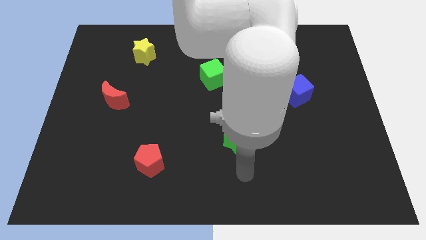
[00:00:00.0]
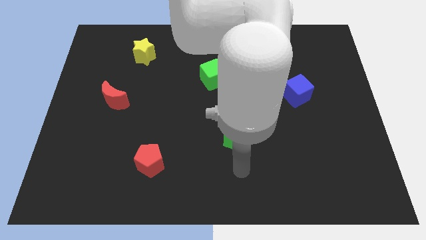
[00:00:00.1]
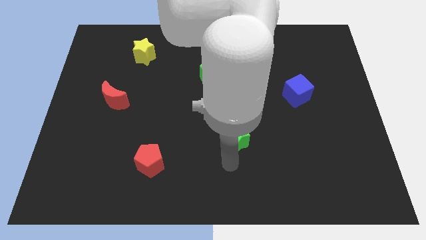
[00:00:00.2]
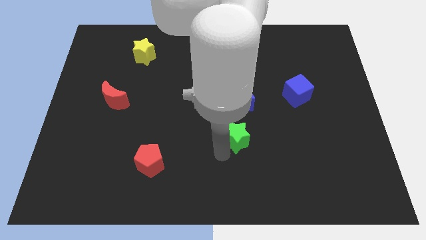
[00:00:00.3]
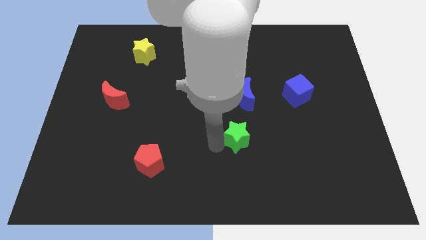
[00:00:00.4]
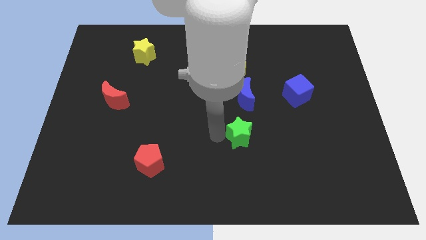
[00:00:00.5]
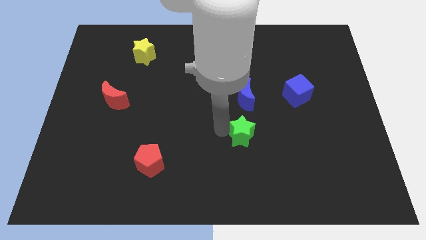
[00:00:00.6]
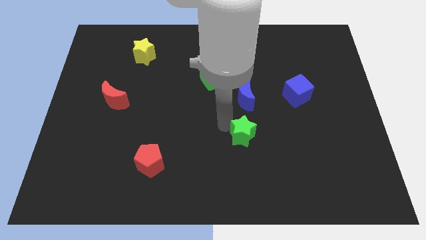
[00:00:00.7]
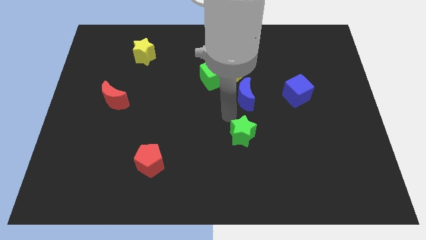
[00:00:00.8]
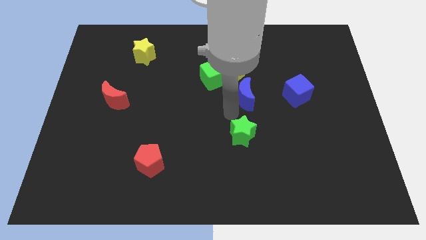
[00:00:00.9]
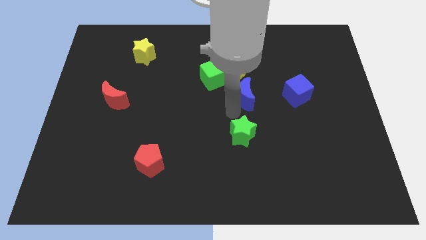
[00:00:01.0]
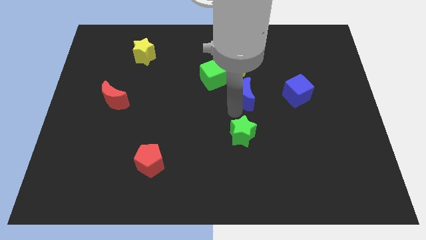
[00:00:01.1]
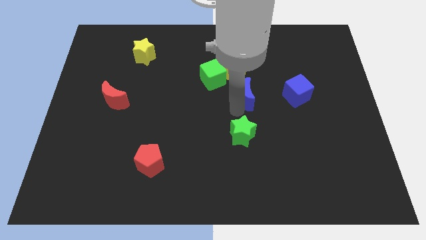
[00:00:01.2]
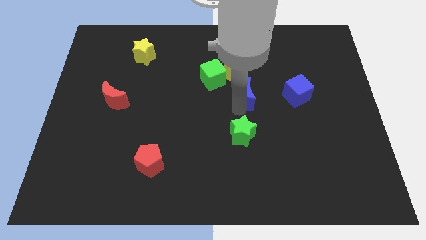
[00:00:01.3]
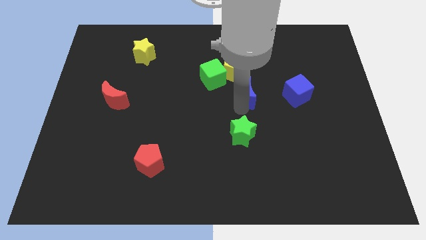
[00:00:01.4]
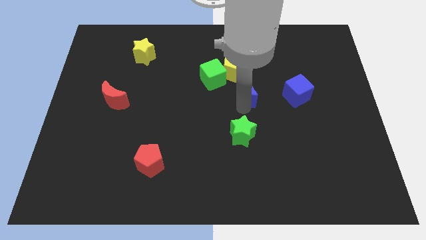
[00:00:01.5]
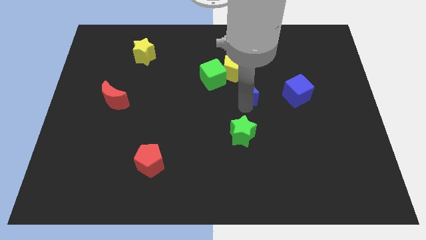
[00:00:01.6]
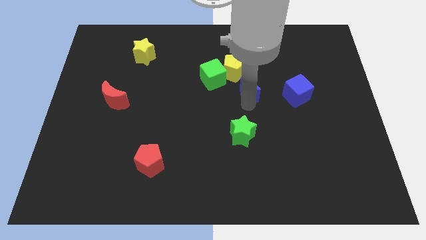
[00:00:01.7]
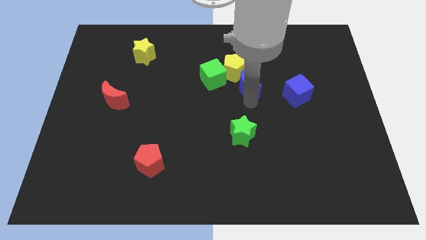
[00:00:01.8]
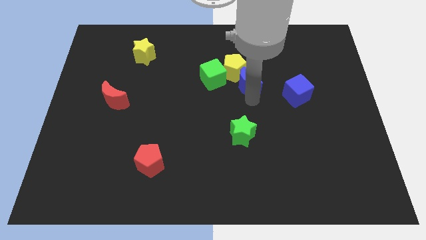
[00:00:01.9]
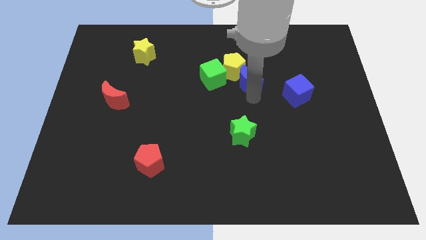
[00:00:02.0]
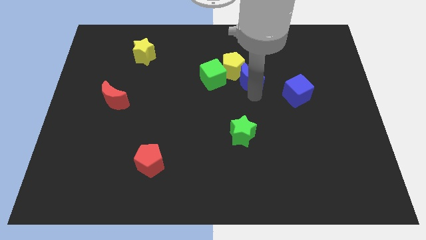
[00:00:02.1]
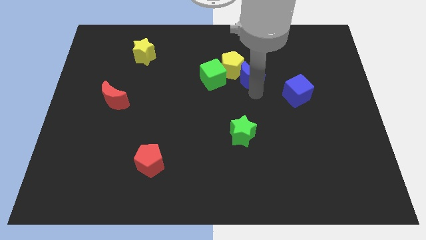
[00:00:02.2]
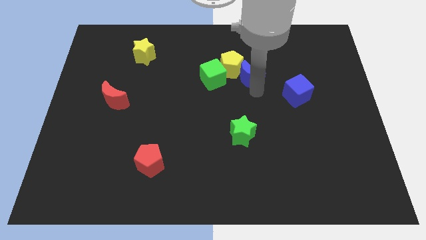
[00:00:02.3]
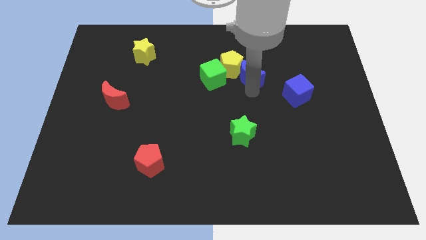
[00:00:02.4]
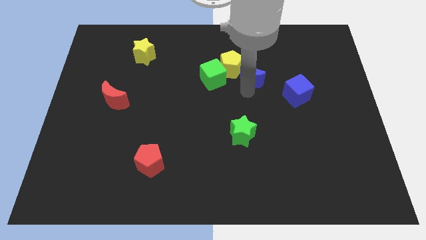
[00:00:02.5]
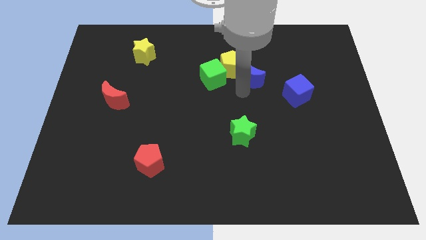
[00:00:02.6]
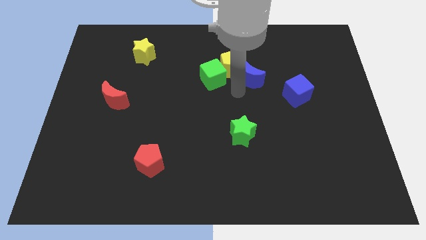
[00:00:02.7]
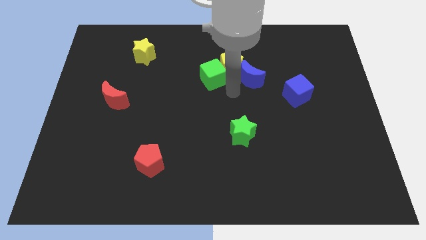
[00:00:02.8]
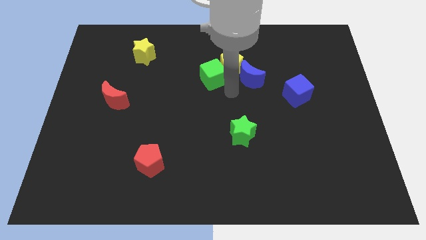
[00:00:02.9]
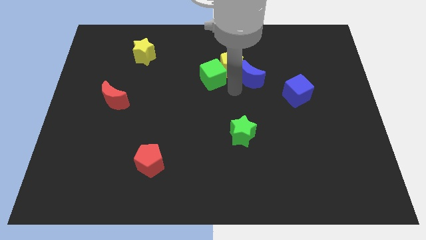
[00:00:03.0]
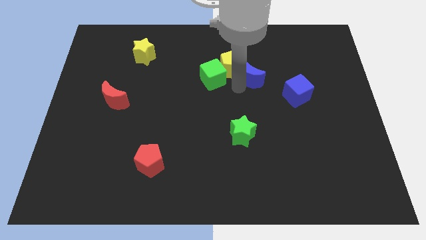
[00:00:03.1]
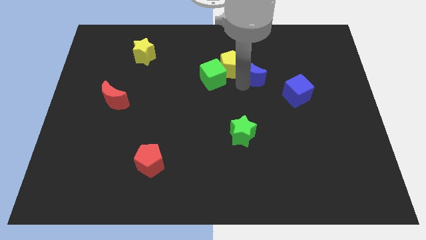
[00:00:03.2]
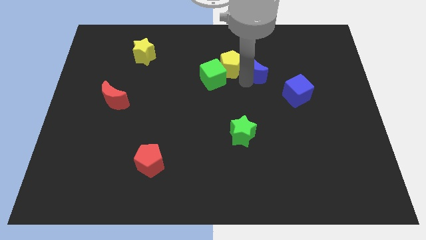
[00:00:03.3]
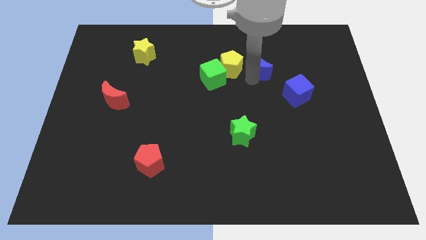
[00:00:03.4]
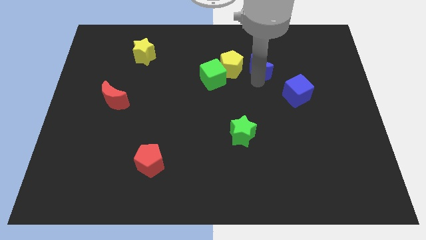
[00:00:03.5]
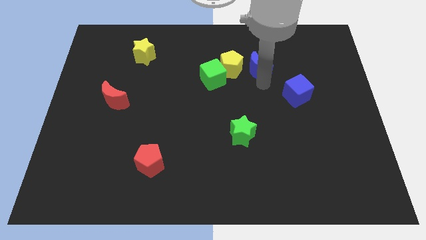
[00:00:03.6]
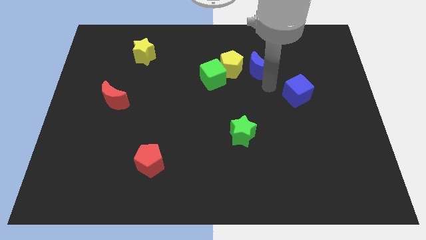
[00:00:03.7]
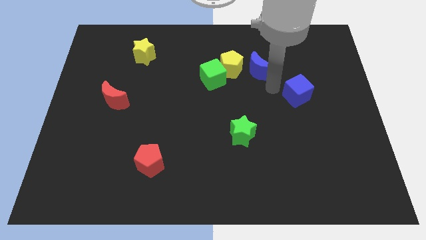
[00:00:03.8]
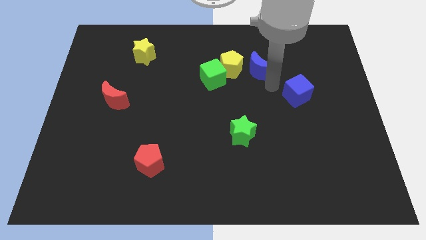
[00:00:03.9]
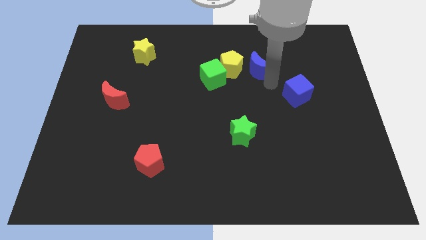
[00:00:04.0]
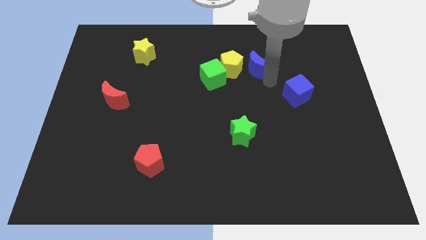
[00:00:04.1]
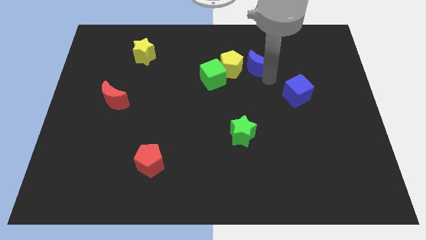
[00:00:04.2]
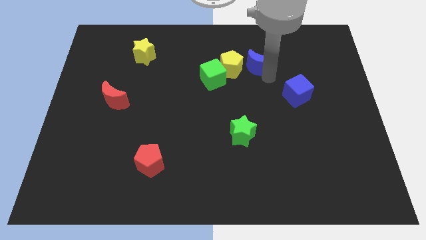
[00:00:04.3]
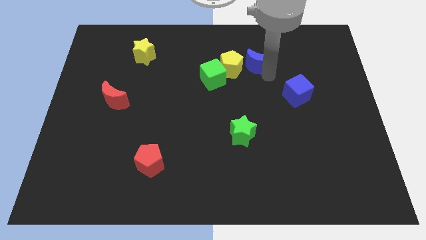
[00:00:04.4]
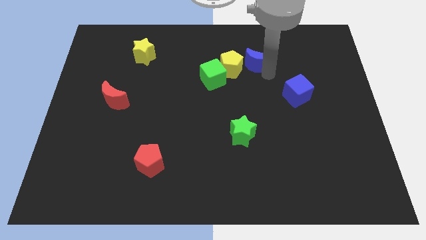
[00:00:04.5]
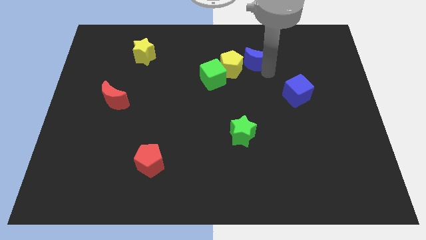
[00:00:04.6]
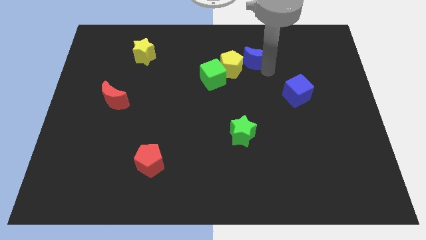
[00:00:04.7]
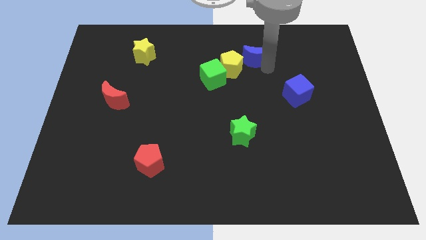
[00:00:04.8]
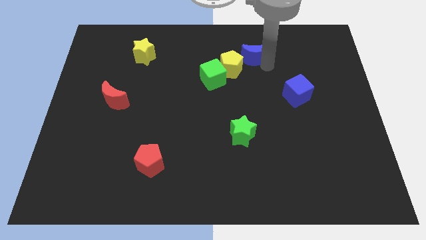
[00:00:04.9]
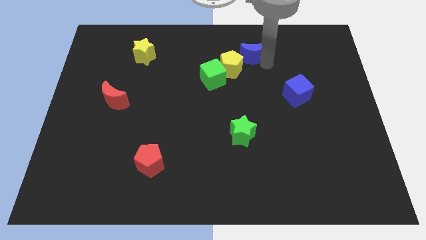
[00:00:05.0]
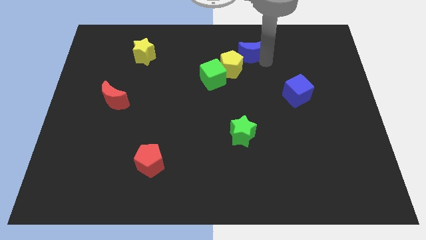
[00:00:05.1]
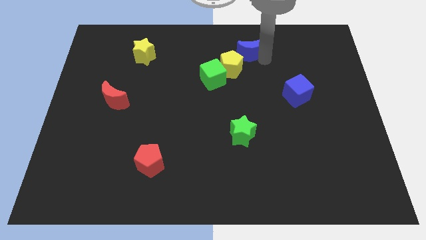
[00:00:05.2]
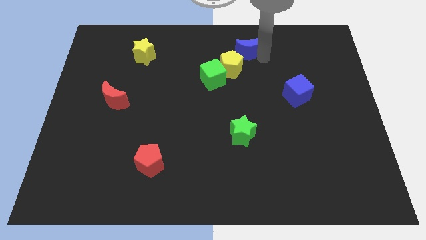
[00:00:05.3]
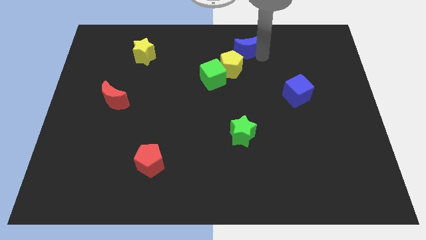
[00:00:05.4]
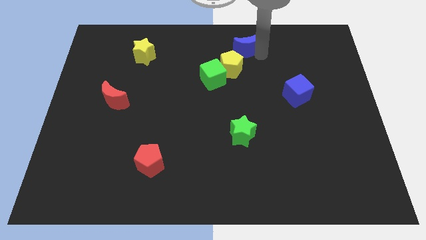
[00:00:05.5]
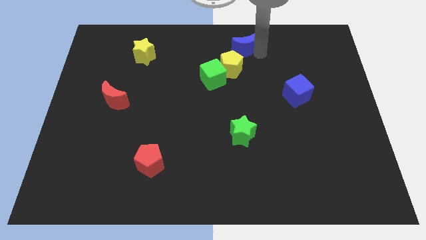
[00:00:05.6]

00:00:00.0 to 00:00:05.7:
put the blue moon to the towards your base
